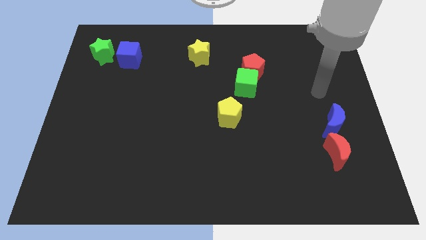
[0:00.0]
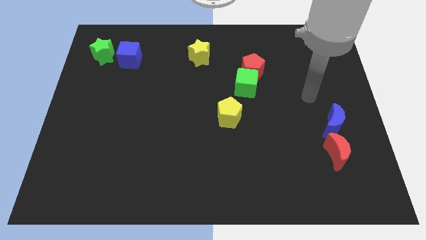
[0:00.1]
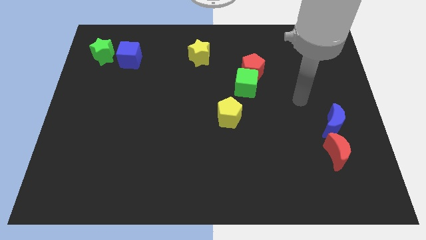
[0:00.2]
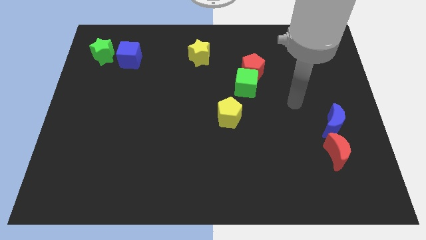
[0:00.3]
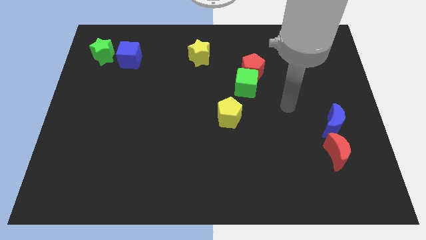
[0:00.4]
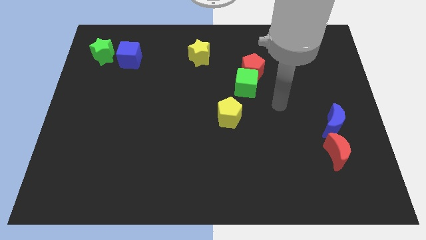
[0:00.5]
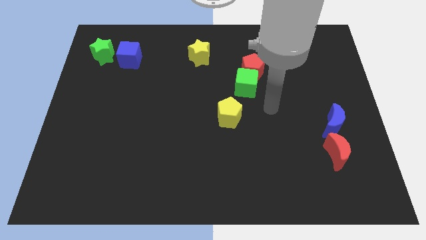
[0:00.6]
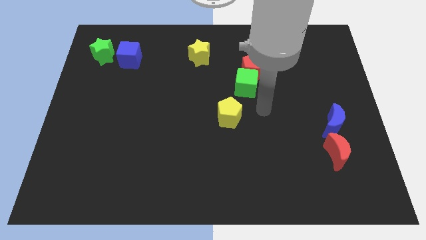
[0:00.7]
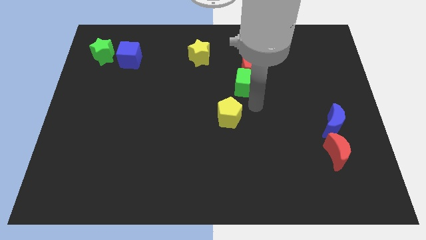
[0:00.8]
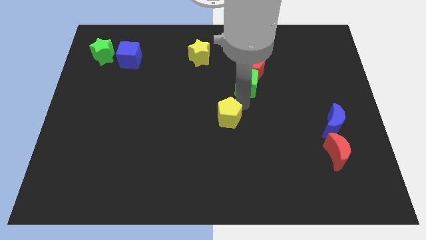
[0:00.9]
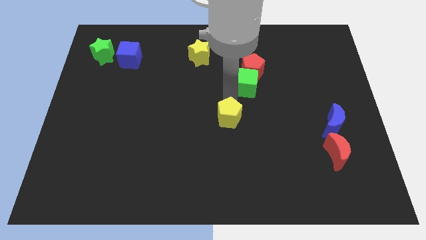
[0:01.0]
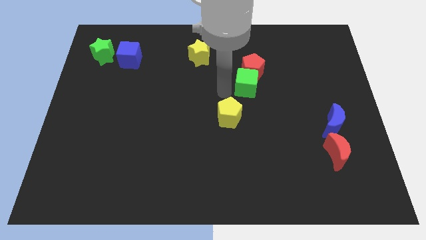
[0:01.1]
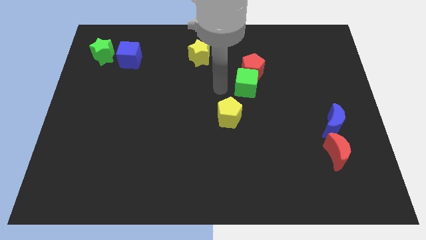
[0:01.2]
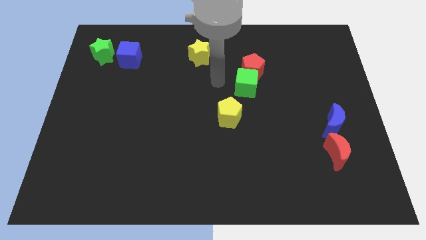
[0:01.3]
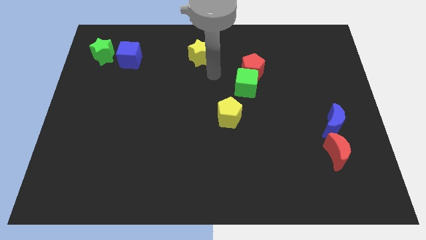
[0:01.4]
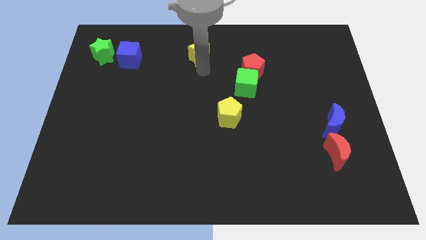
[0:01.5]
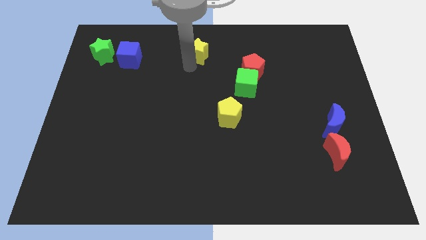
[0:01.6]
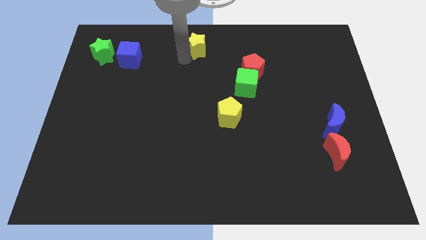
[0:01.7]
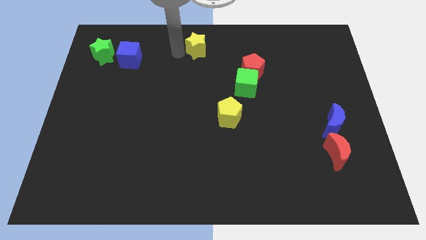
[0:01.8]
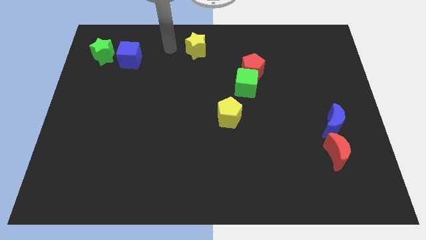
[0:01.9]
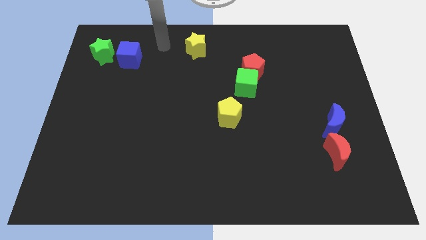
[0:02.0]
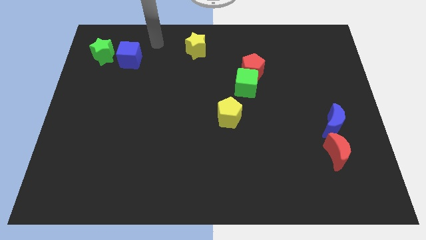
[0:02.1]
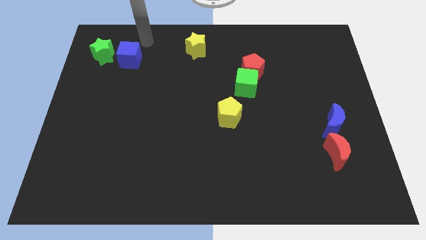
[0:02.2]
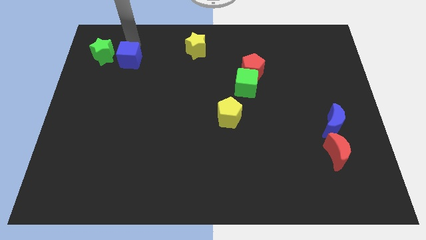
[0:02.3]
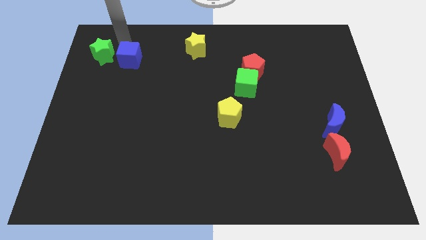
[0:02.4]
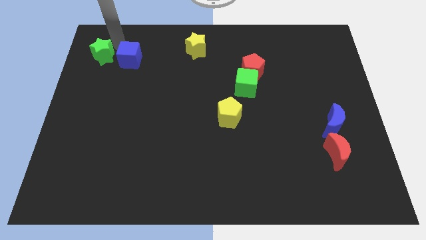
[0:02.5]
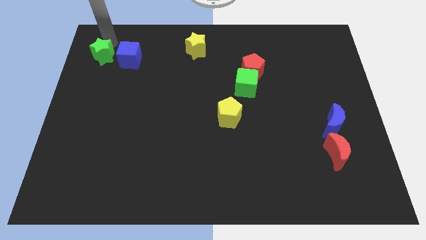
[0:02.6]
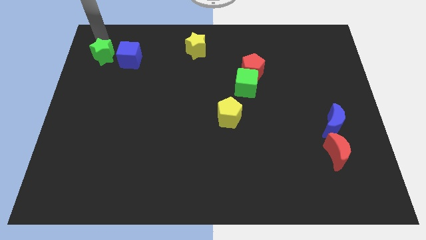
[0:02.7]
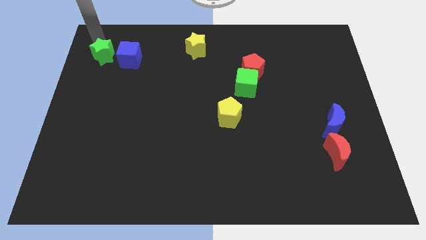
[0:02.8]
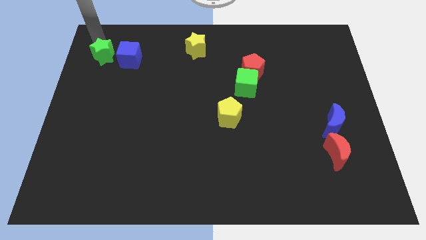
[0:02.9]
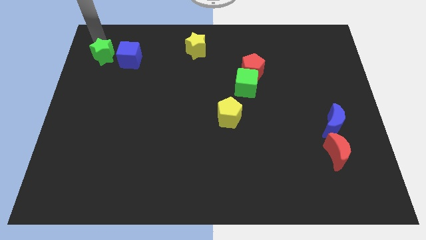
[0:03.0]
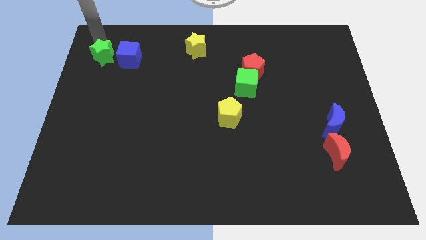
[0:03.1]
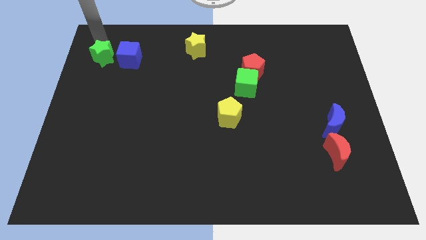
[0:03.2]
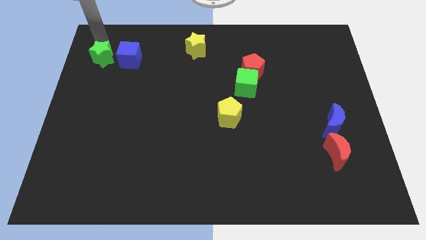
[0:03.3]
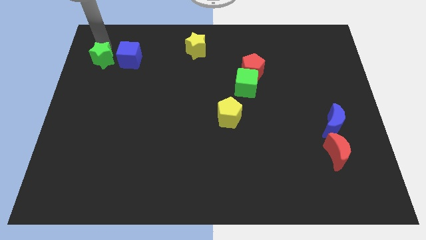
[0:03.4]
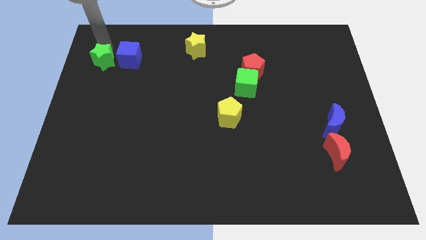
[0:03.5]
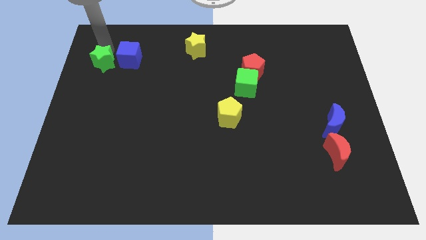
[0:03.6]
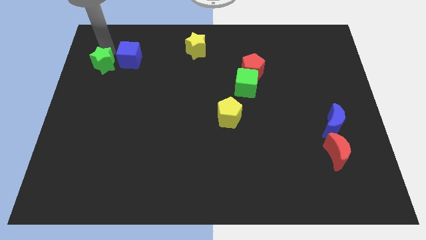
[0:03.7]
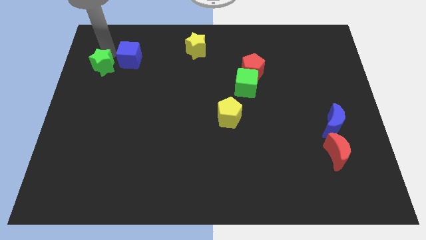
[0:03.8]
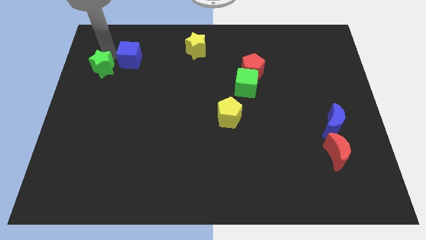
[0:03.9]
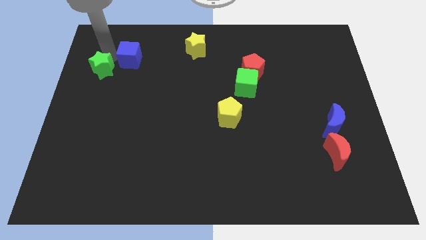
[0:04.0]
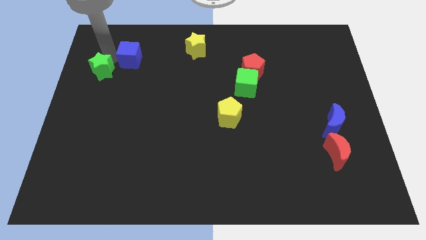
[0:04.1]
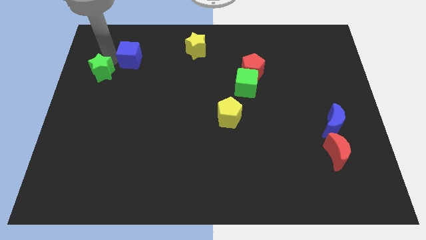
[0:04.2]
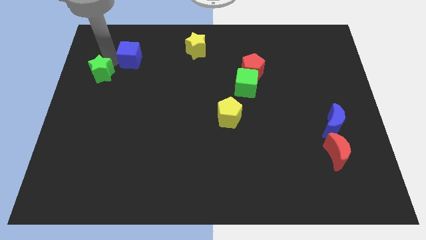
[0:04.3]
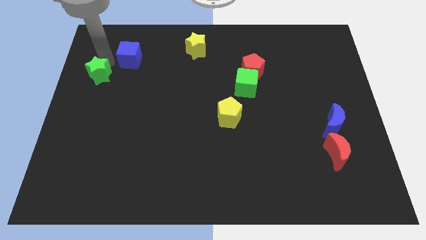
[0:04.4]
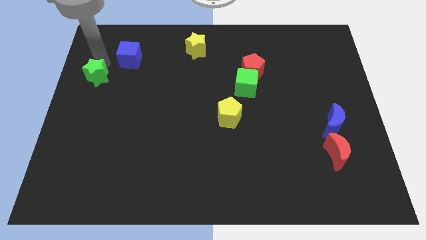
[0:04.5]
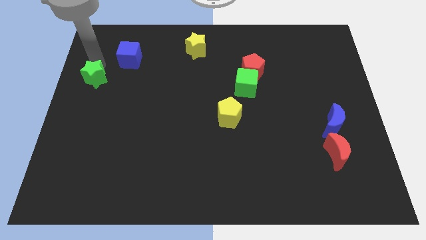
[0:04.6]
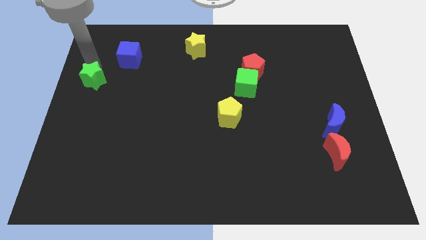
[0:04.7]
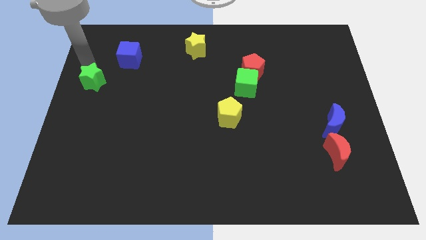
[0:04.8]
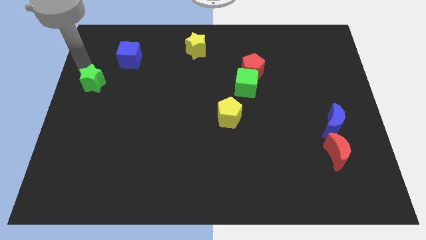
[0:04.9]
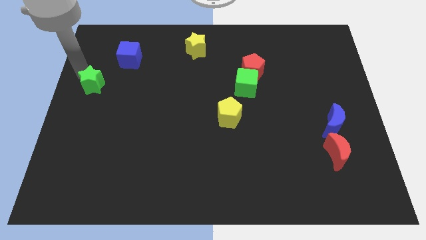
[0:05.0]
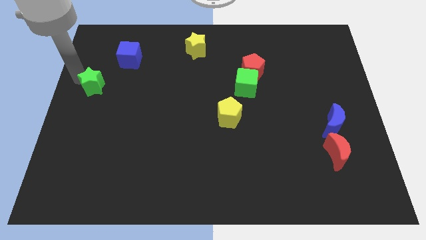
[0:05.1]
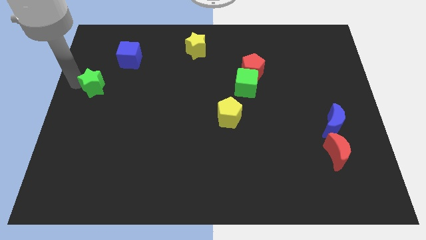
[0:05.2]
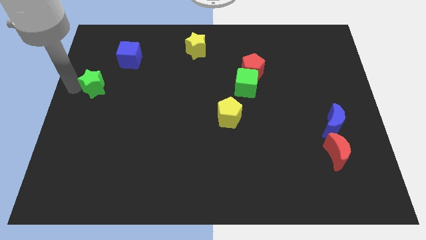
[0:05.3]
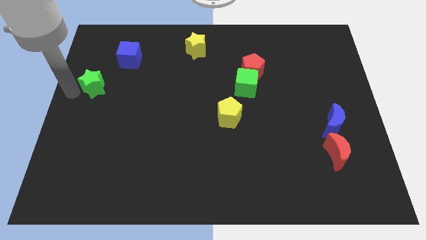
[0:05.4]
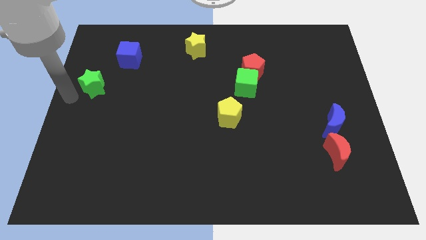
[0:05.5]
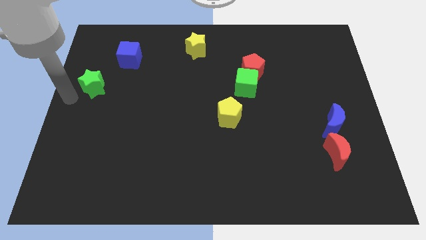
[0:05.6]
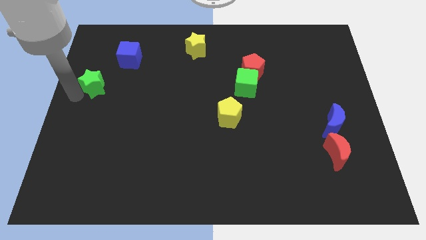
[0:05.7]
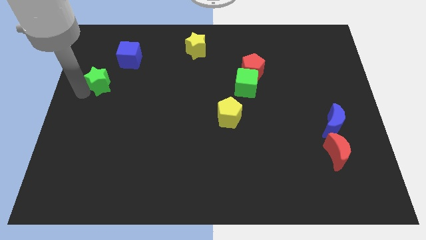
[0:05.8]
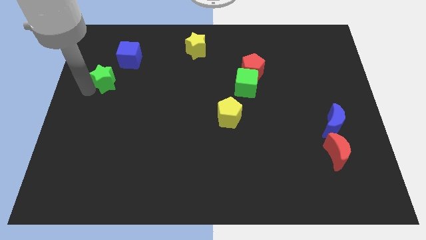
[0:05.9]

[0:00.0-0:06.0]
slide the green star below the blue cube
